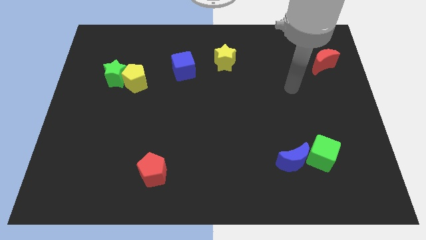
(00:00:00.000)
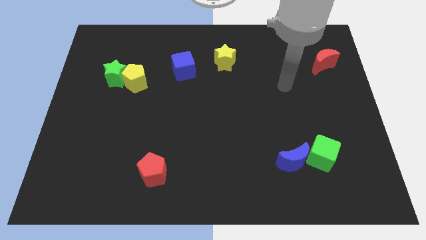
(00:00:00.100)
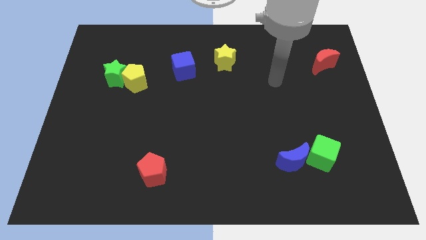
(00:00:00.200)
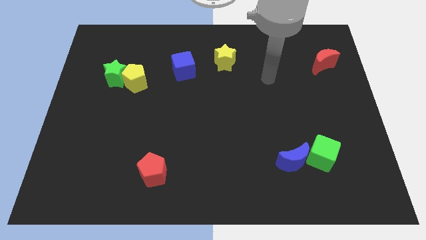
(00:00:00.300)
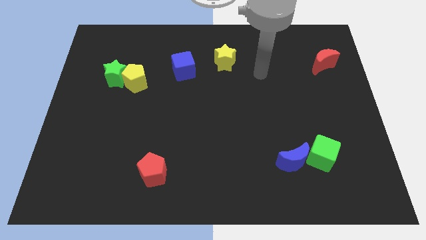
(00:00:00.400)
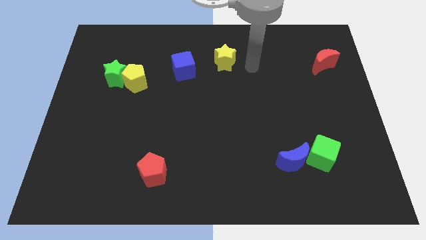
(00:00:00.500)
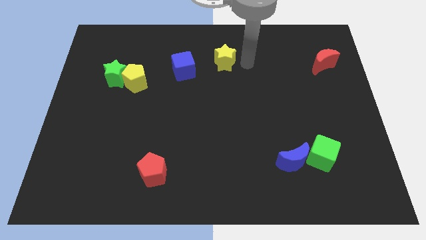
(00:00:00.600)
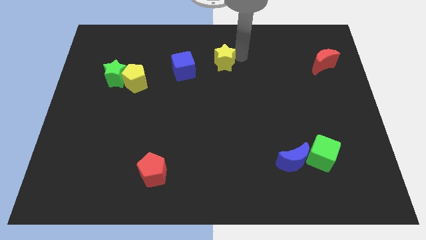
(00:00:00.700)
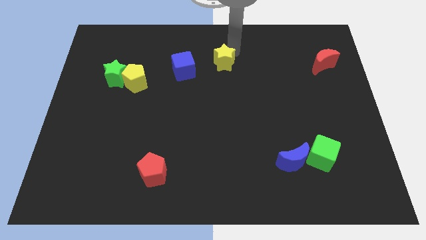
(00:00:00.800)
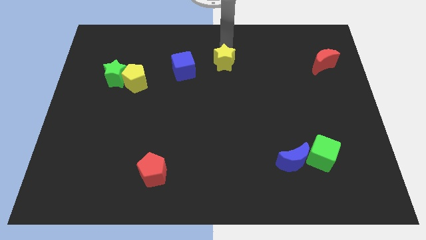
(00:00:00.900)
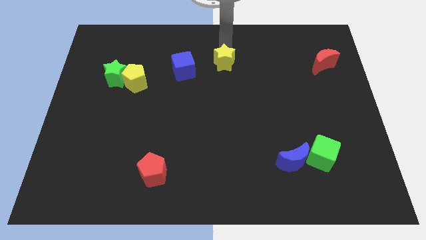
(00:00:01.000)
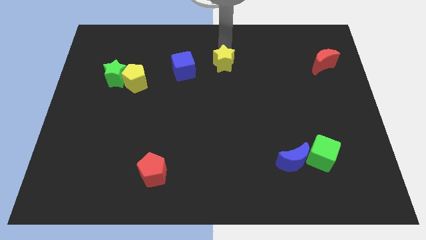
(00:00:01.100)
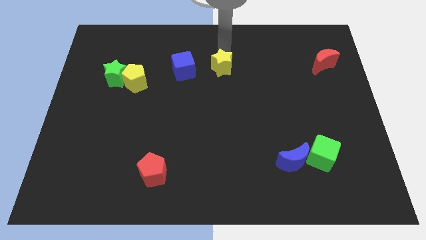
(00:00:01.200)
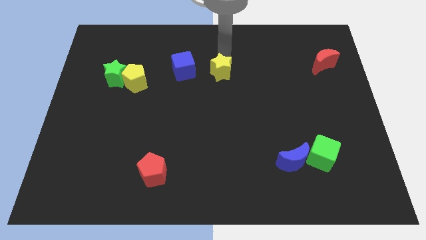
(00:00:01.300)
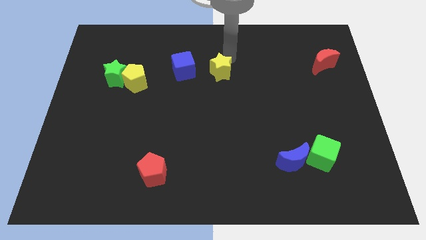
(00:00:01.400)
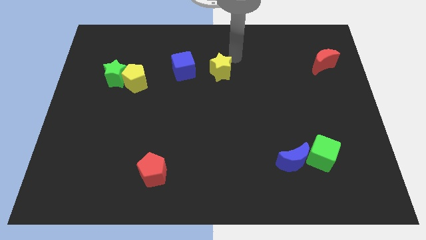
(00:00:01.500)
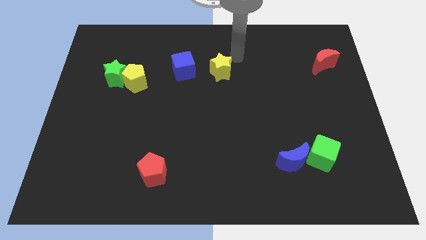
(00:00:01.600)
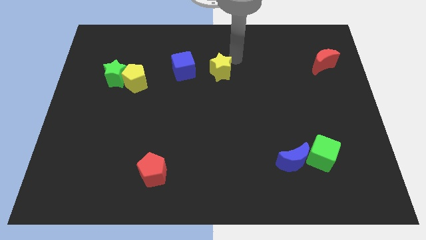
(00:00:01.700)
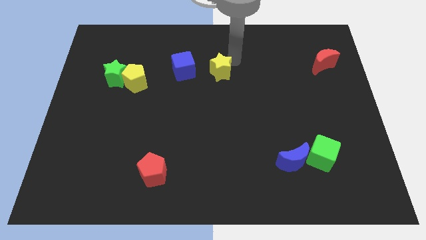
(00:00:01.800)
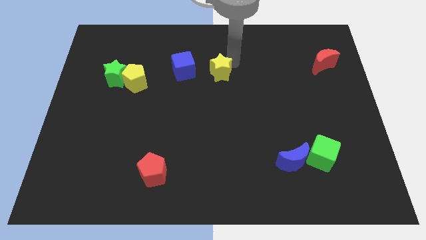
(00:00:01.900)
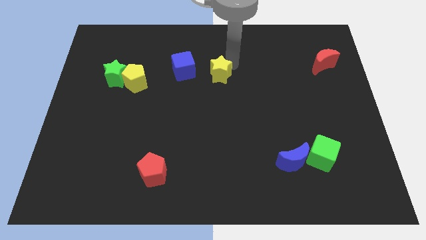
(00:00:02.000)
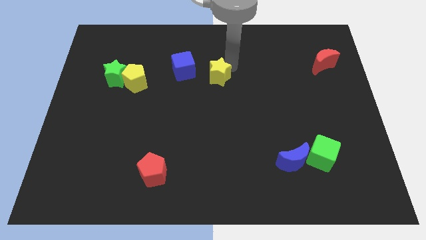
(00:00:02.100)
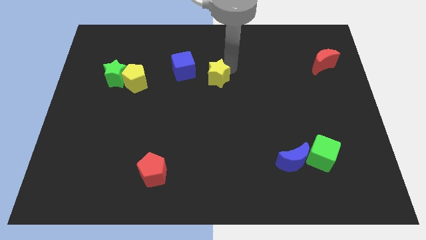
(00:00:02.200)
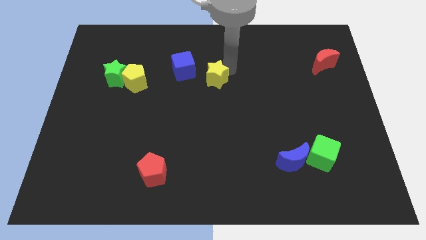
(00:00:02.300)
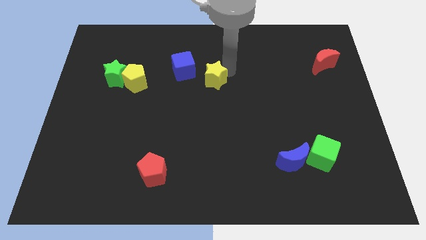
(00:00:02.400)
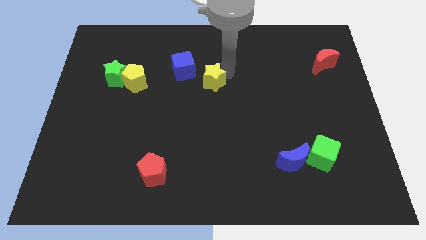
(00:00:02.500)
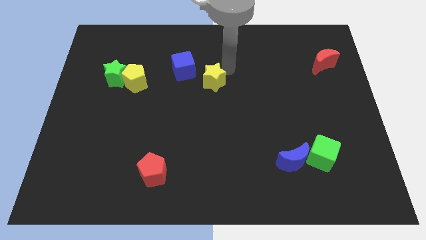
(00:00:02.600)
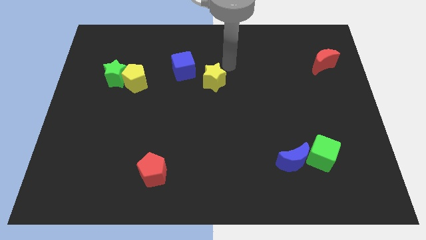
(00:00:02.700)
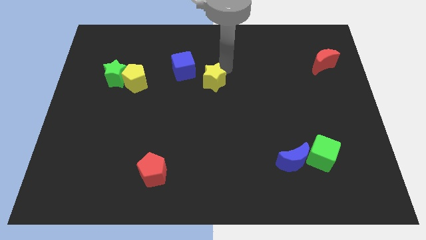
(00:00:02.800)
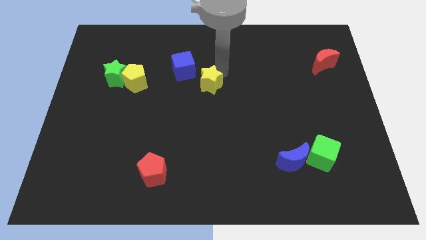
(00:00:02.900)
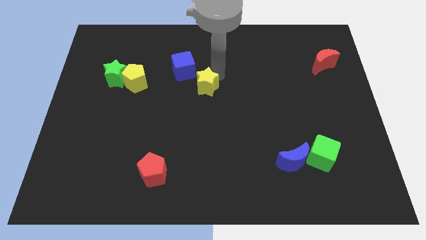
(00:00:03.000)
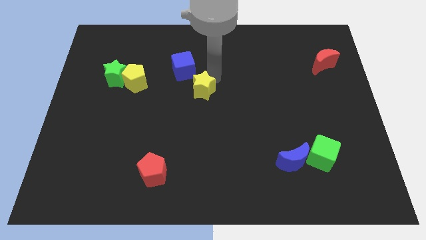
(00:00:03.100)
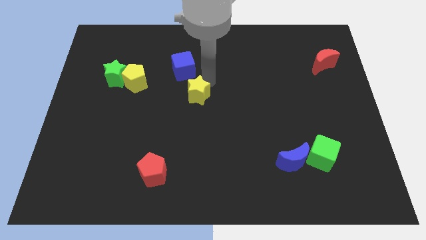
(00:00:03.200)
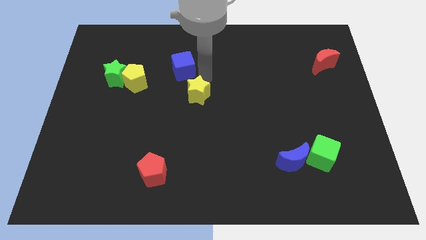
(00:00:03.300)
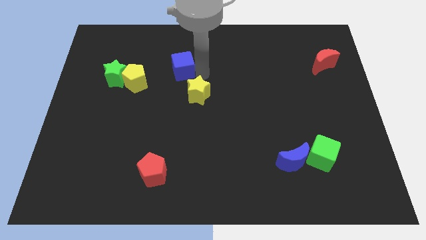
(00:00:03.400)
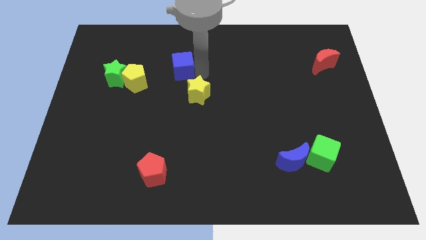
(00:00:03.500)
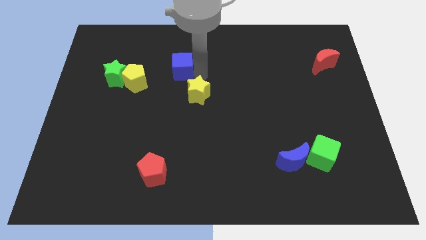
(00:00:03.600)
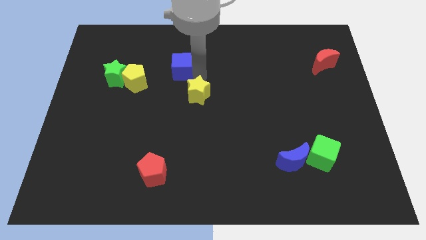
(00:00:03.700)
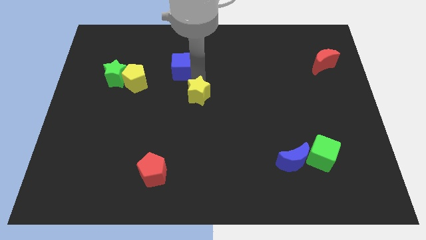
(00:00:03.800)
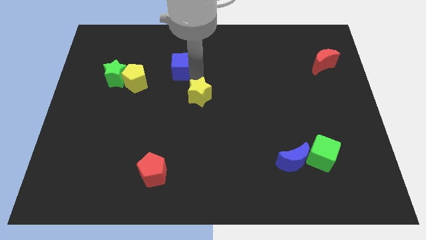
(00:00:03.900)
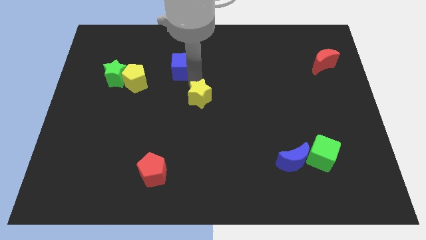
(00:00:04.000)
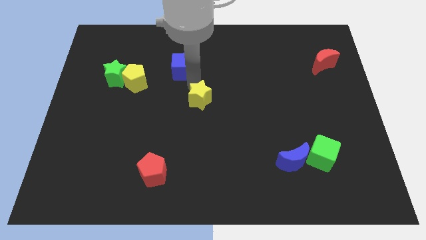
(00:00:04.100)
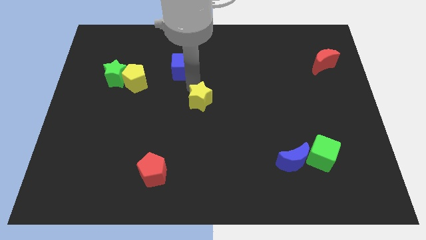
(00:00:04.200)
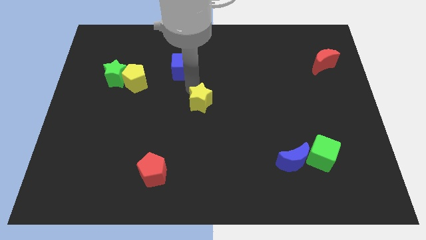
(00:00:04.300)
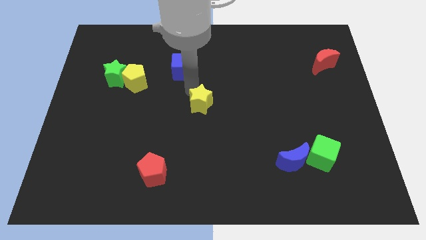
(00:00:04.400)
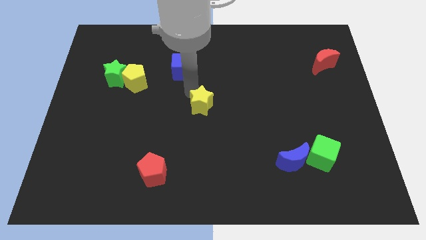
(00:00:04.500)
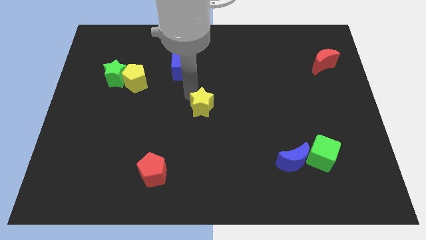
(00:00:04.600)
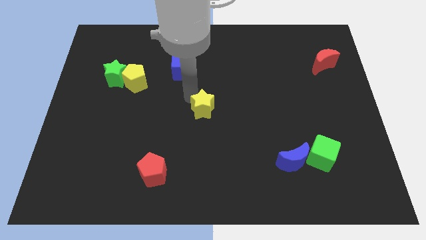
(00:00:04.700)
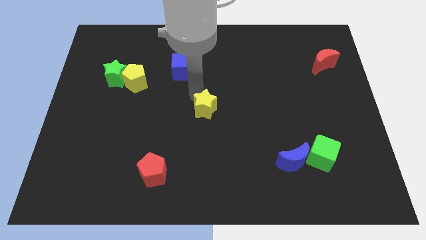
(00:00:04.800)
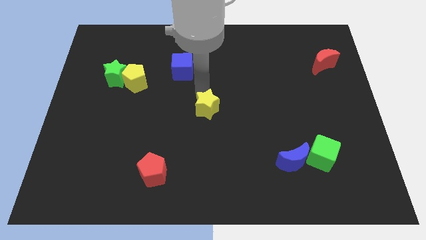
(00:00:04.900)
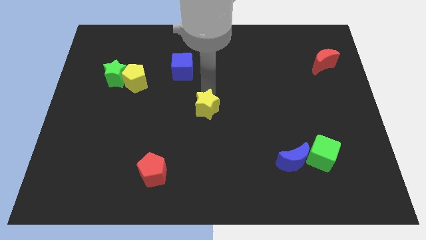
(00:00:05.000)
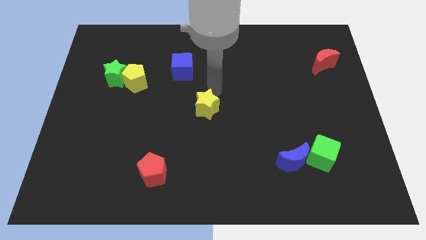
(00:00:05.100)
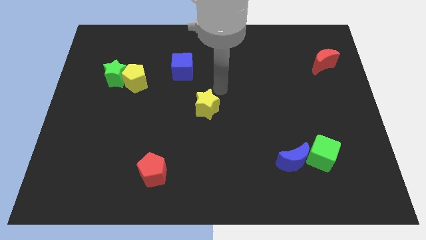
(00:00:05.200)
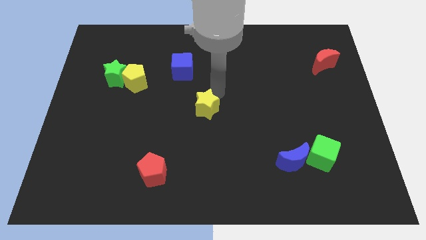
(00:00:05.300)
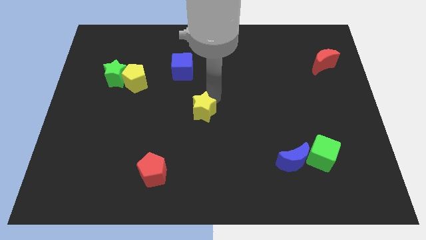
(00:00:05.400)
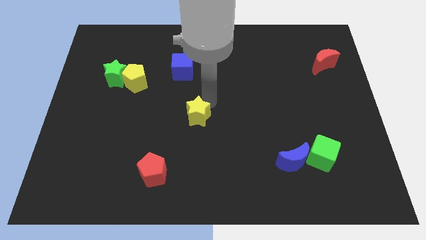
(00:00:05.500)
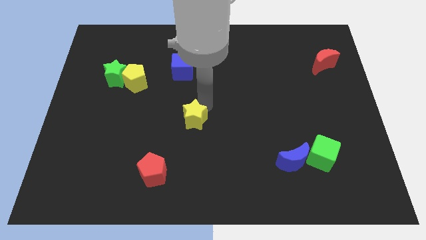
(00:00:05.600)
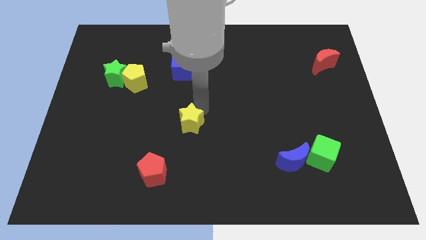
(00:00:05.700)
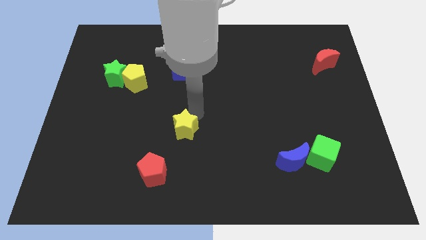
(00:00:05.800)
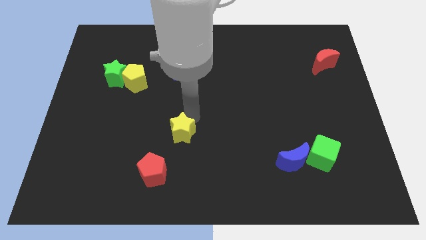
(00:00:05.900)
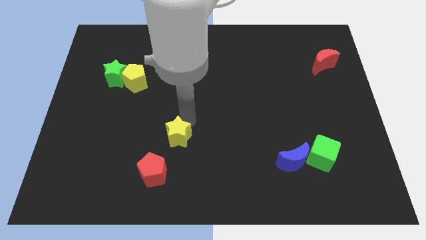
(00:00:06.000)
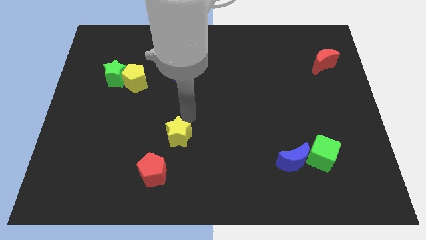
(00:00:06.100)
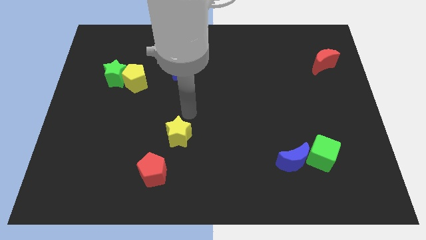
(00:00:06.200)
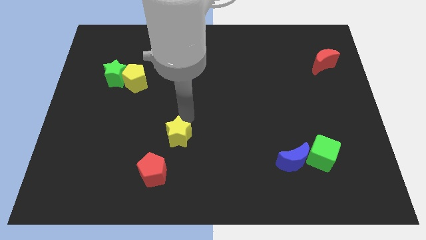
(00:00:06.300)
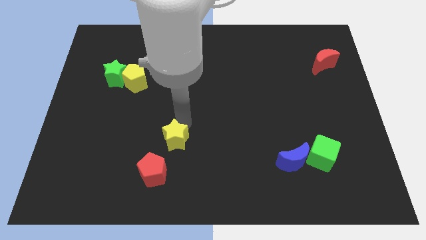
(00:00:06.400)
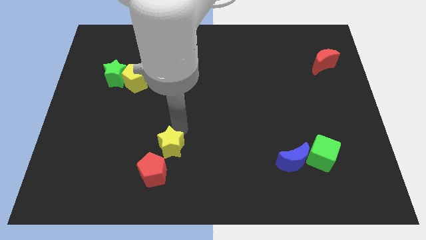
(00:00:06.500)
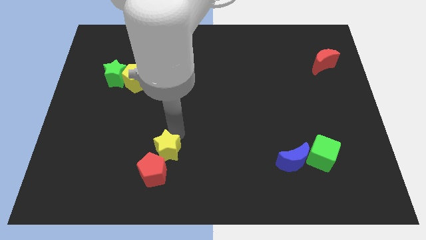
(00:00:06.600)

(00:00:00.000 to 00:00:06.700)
put the yellow star close to the red pentagon
